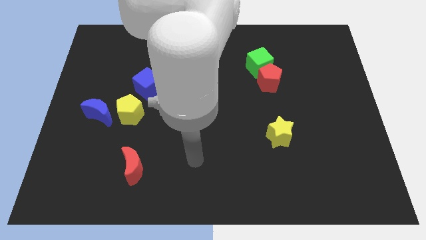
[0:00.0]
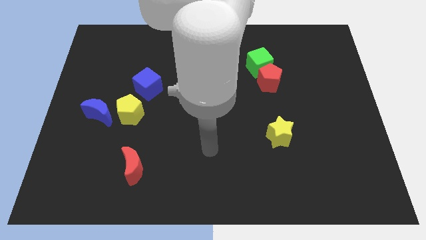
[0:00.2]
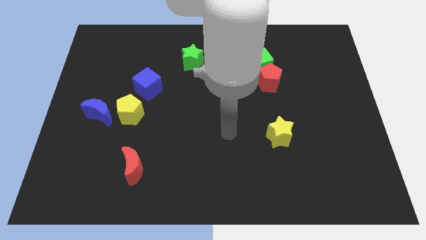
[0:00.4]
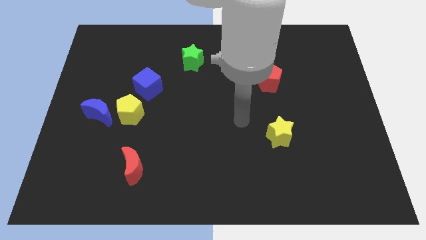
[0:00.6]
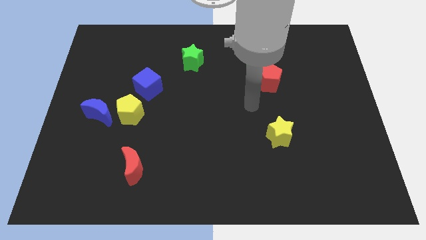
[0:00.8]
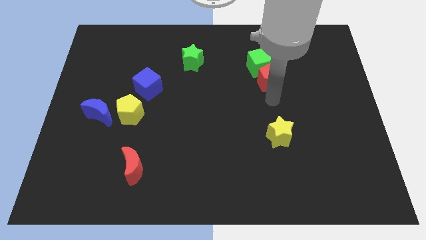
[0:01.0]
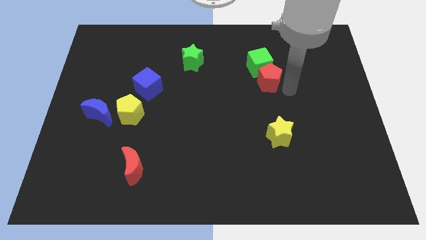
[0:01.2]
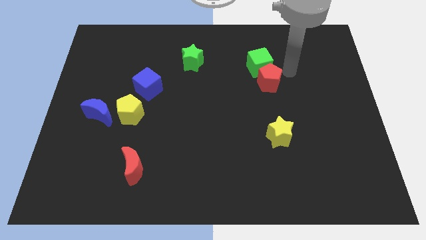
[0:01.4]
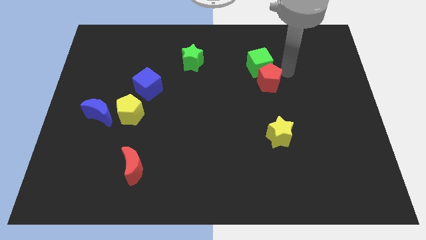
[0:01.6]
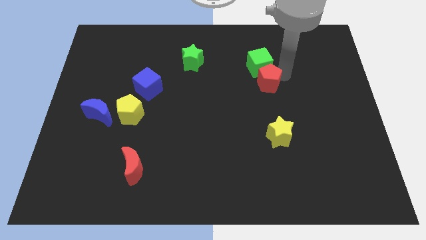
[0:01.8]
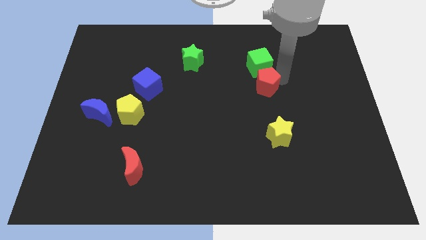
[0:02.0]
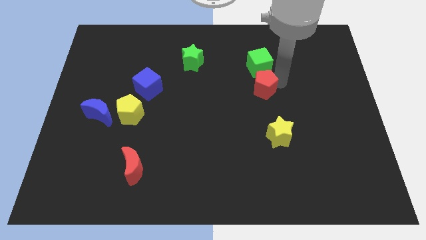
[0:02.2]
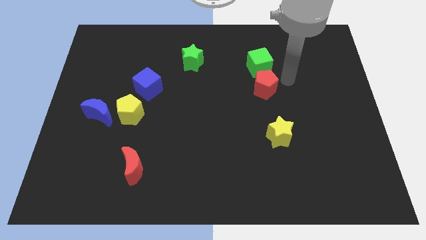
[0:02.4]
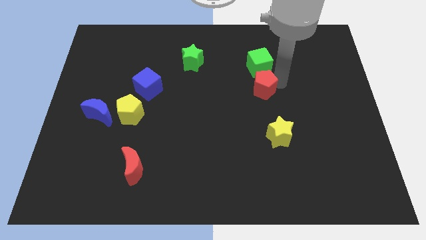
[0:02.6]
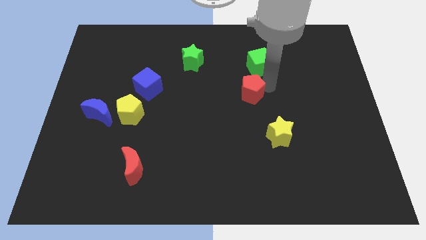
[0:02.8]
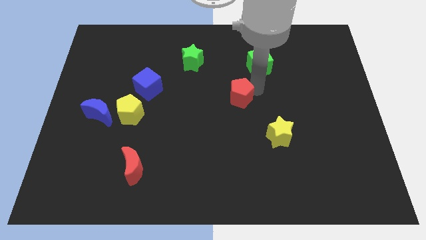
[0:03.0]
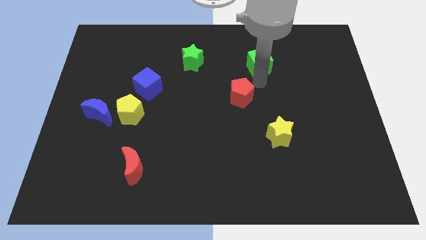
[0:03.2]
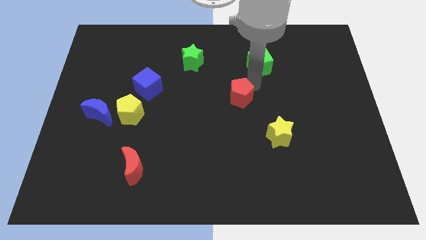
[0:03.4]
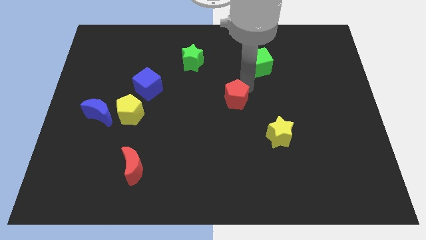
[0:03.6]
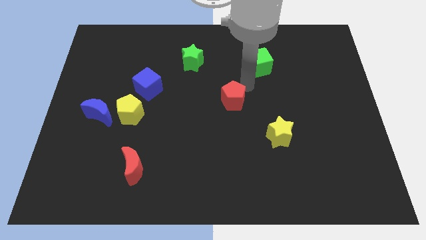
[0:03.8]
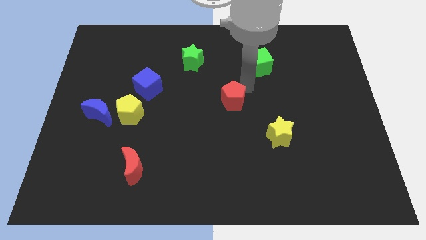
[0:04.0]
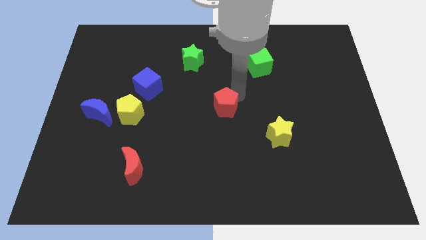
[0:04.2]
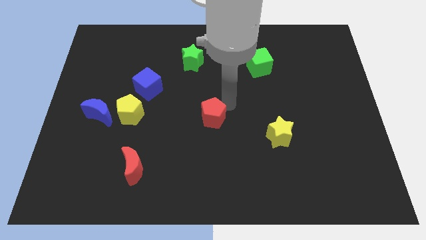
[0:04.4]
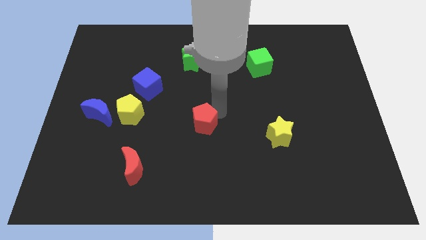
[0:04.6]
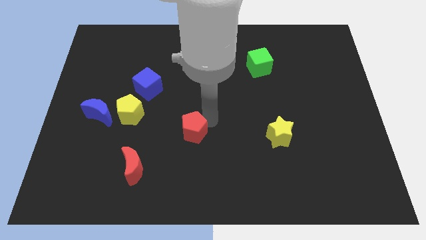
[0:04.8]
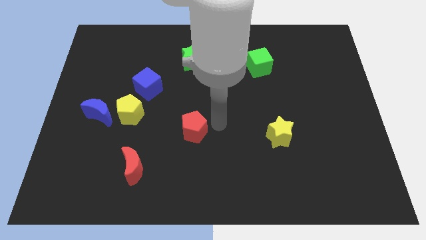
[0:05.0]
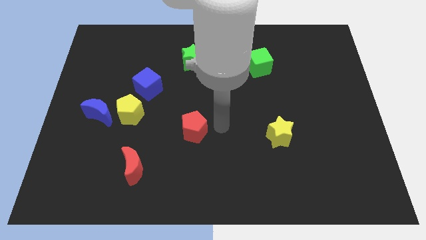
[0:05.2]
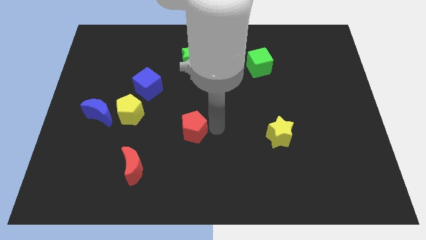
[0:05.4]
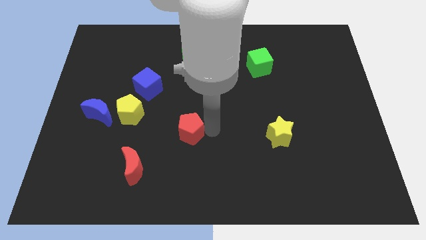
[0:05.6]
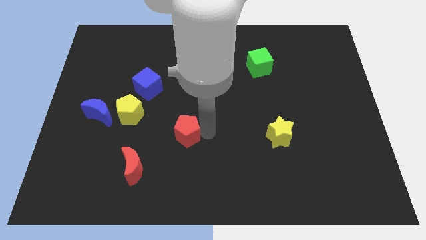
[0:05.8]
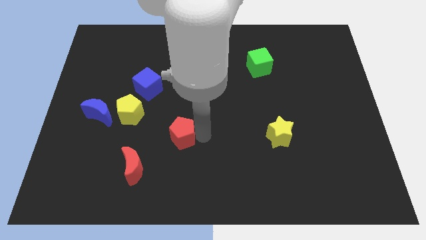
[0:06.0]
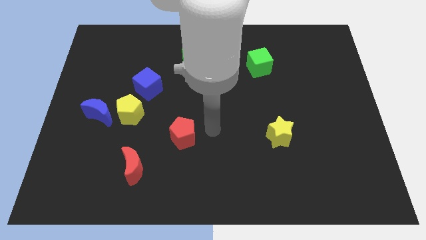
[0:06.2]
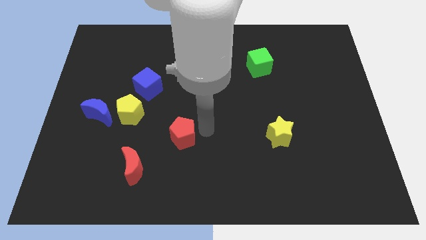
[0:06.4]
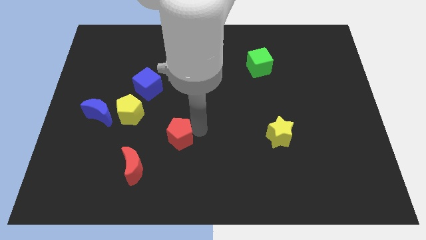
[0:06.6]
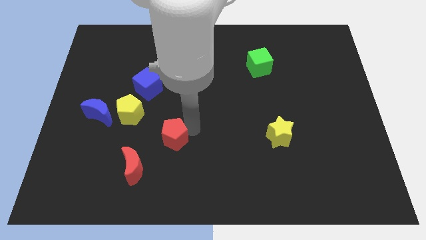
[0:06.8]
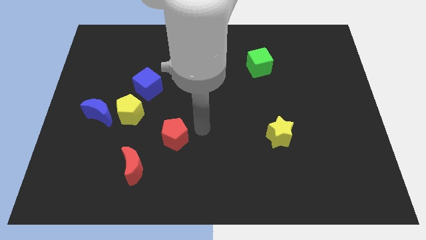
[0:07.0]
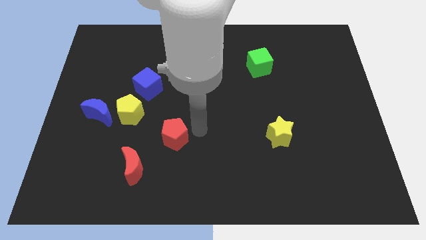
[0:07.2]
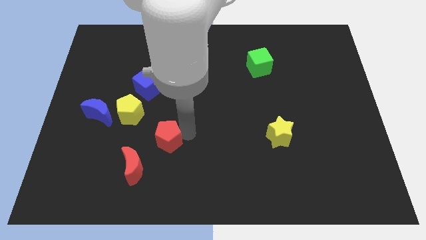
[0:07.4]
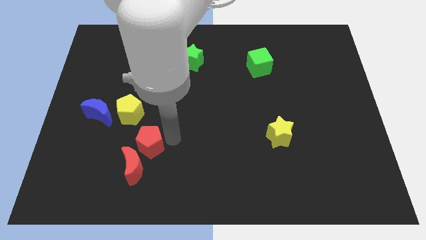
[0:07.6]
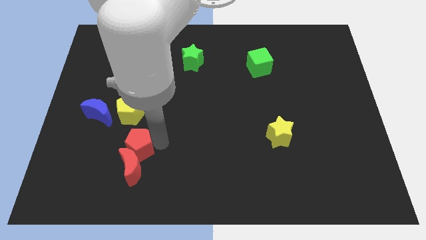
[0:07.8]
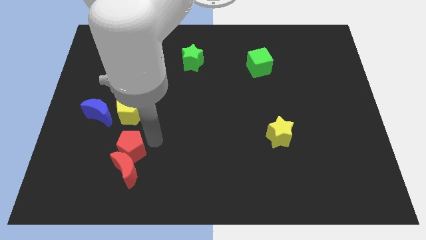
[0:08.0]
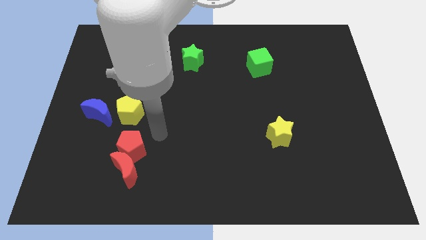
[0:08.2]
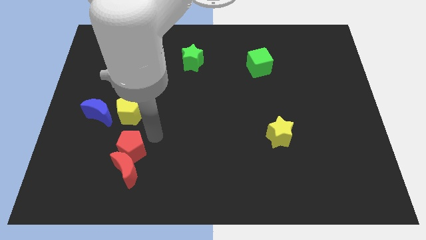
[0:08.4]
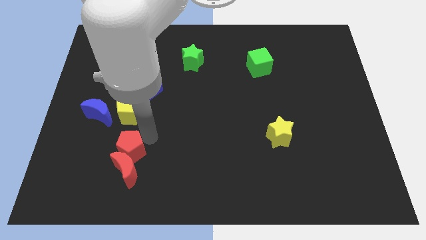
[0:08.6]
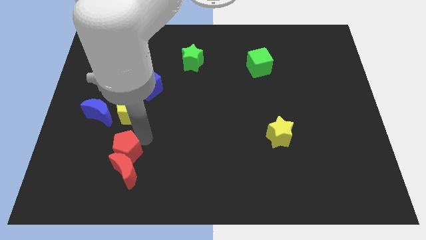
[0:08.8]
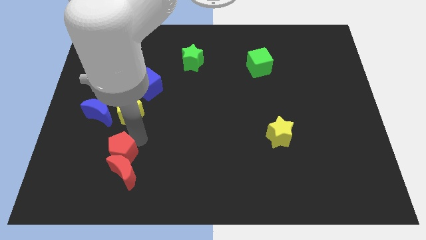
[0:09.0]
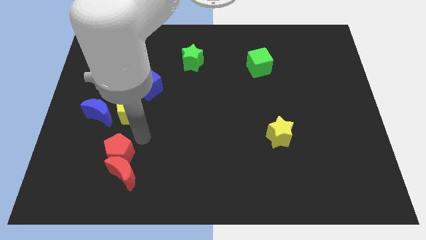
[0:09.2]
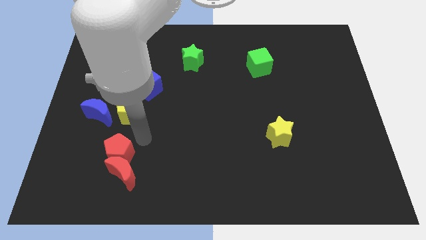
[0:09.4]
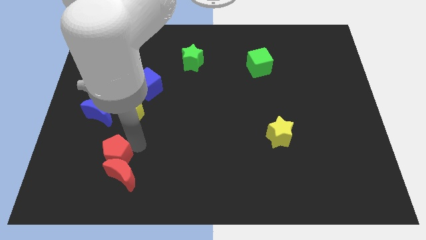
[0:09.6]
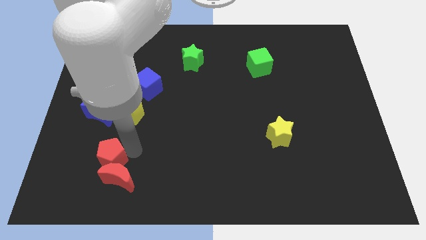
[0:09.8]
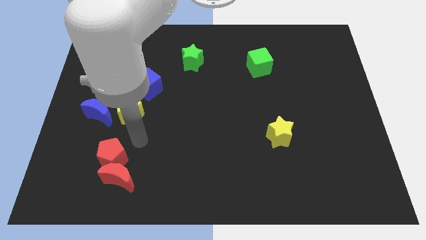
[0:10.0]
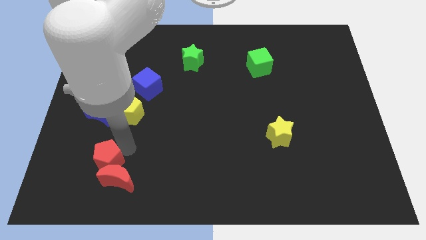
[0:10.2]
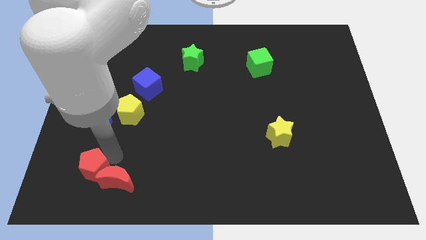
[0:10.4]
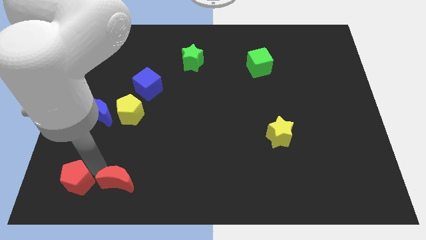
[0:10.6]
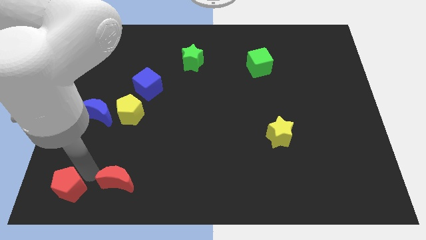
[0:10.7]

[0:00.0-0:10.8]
move the red pentagon to the lower left corner
